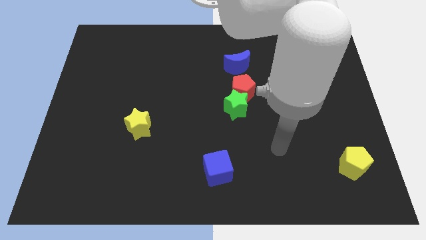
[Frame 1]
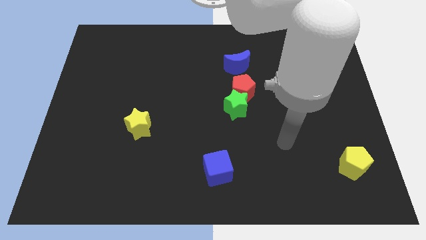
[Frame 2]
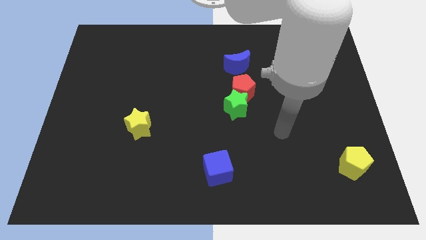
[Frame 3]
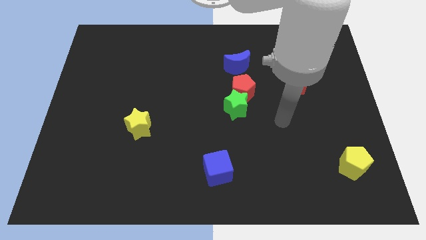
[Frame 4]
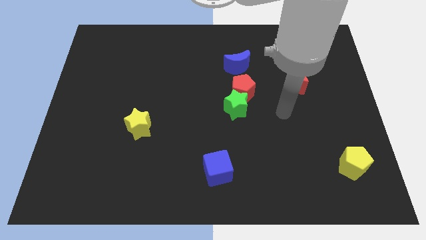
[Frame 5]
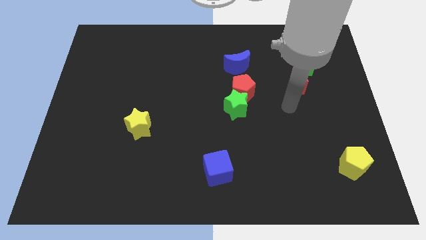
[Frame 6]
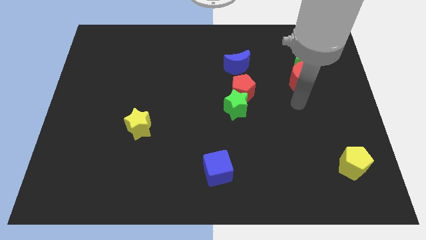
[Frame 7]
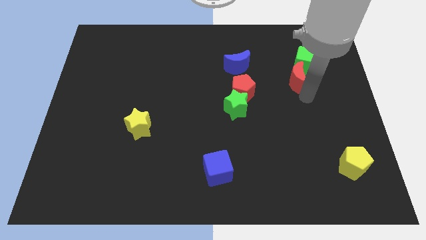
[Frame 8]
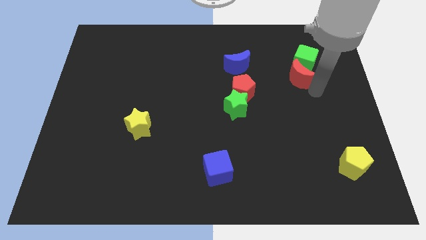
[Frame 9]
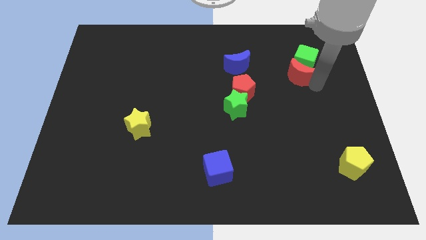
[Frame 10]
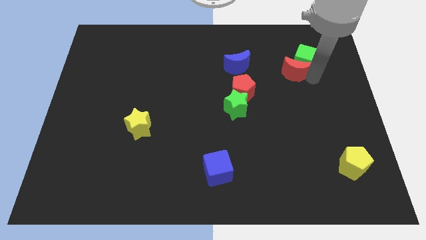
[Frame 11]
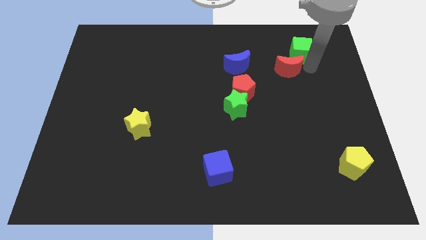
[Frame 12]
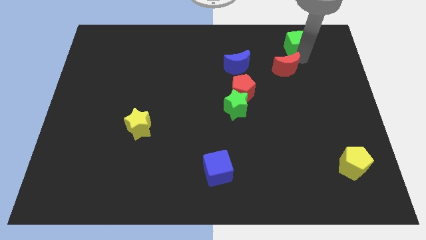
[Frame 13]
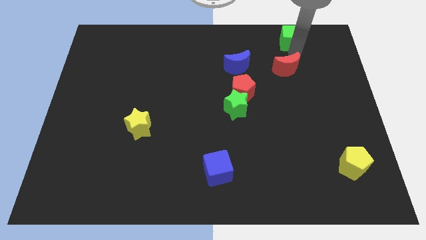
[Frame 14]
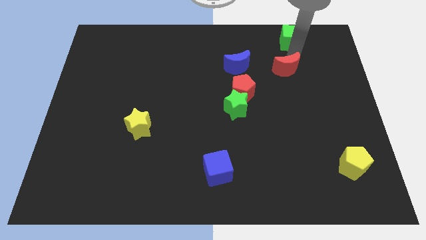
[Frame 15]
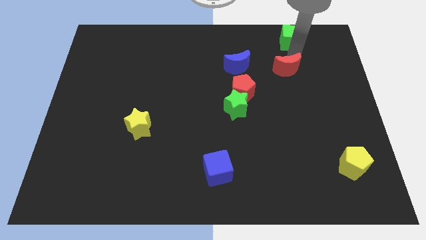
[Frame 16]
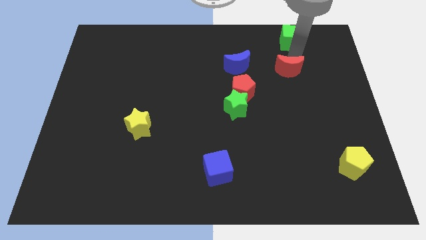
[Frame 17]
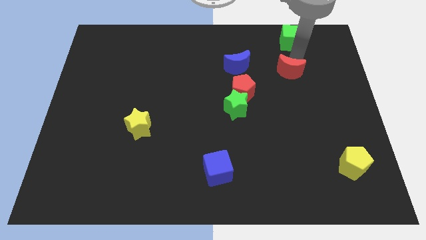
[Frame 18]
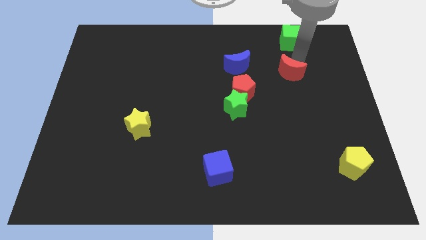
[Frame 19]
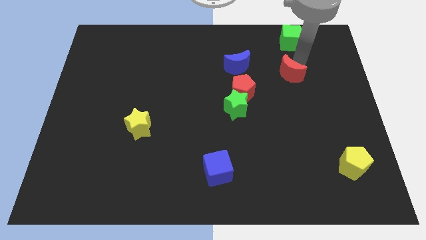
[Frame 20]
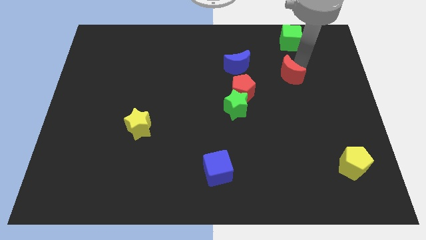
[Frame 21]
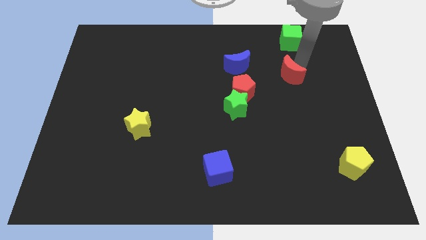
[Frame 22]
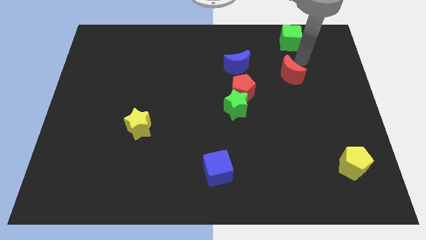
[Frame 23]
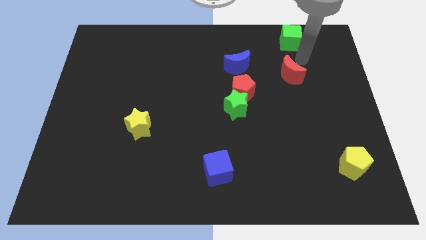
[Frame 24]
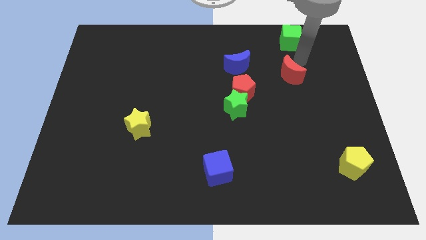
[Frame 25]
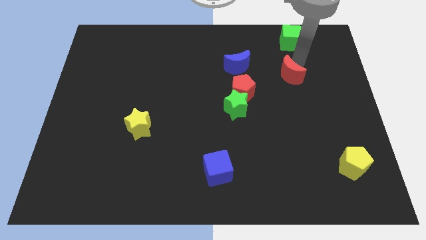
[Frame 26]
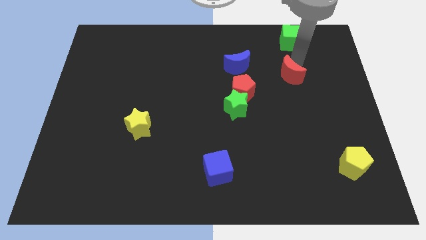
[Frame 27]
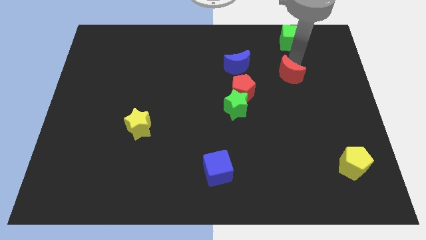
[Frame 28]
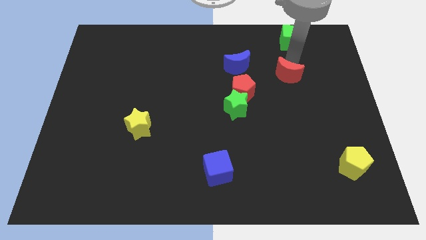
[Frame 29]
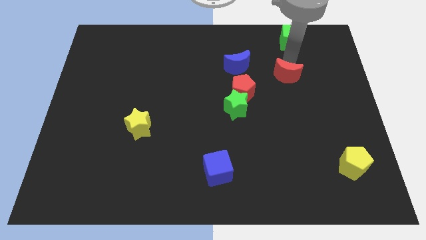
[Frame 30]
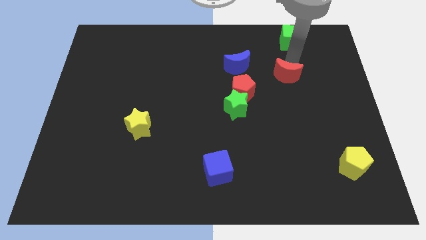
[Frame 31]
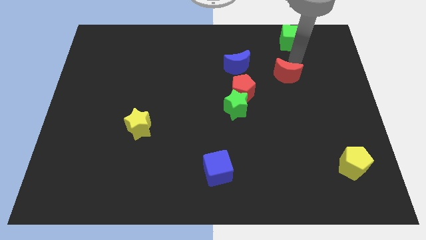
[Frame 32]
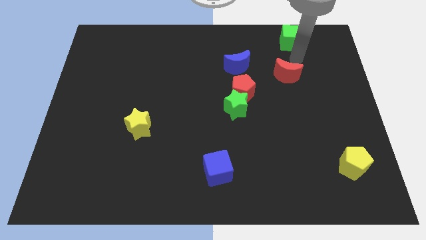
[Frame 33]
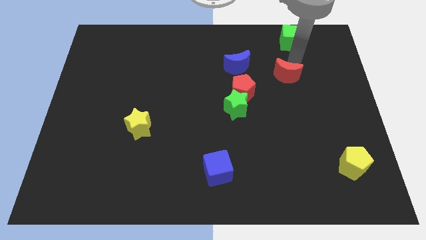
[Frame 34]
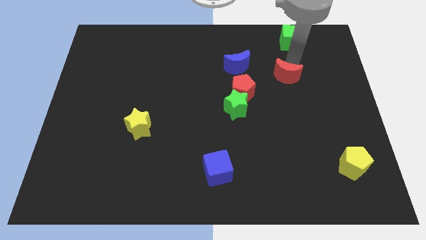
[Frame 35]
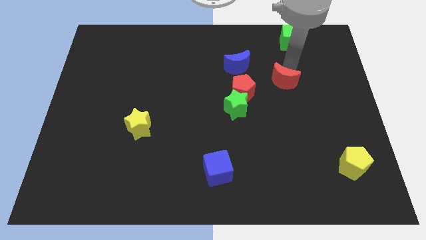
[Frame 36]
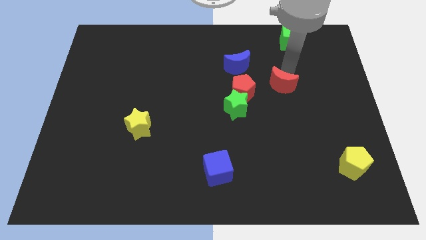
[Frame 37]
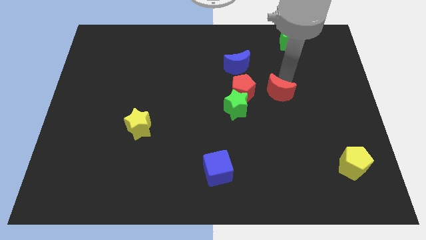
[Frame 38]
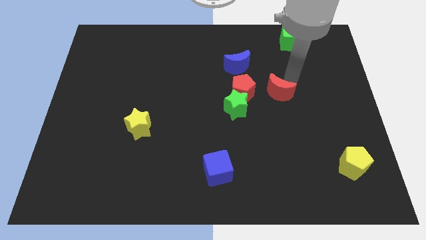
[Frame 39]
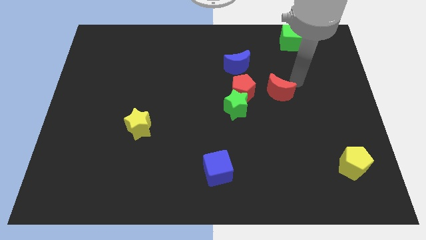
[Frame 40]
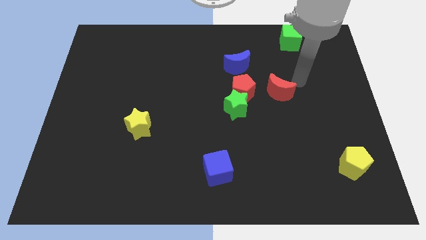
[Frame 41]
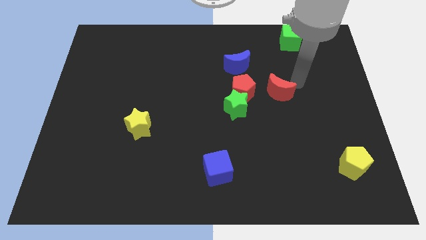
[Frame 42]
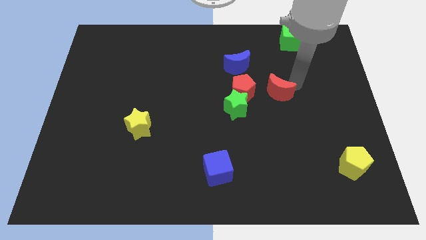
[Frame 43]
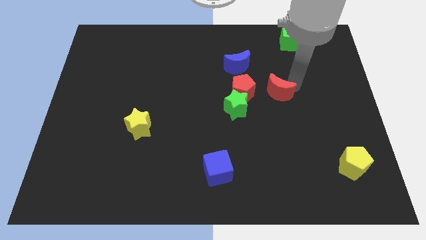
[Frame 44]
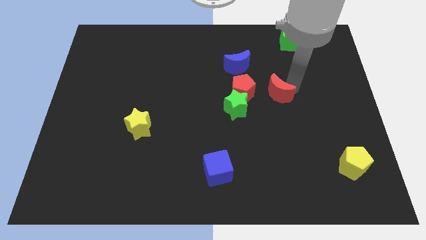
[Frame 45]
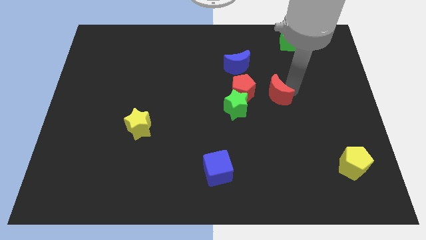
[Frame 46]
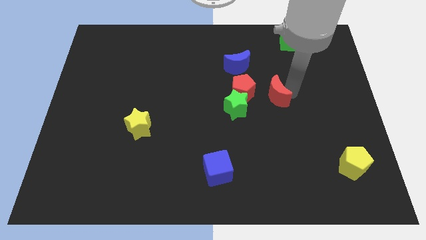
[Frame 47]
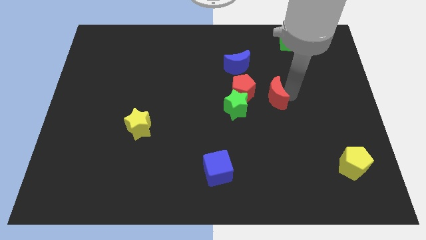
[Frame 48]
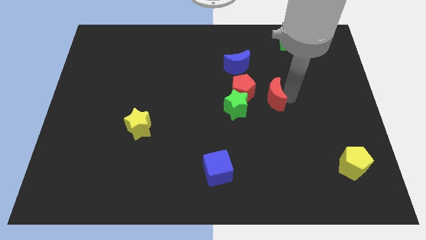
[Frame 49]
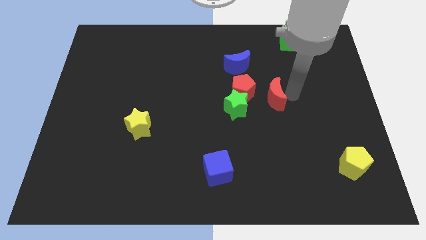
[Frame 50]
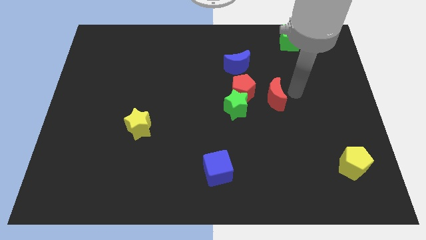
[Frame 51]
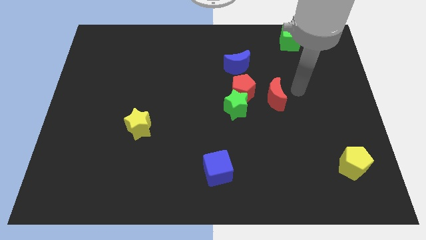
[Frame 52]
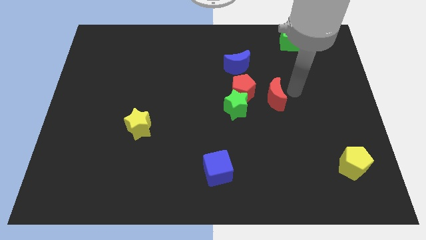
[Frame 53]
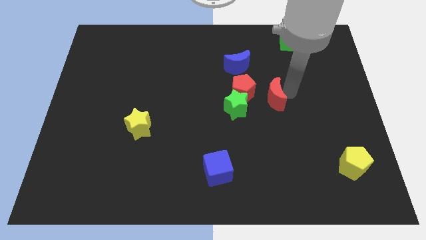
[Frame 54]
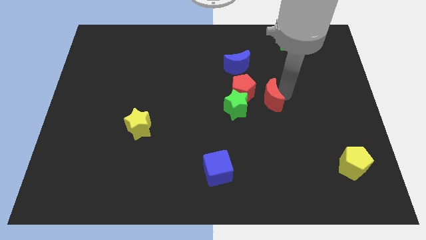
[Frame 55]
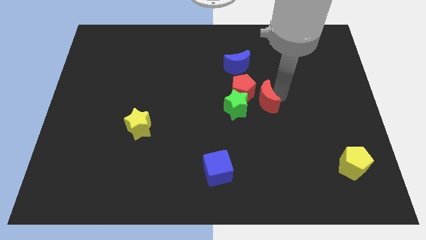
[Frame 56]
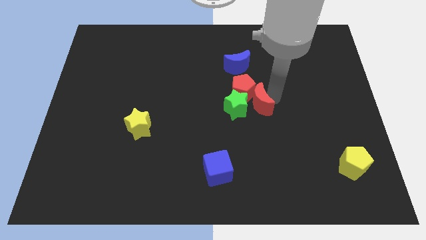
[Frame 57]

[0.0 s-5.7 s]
push the red moon next to the green star

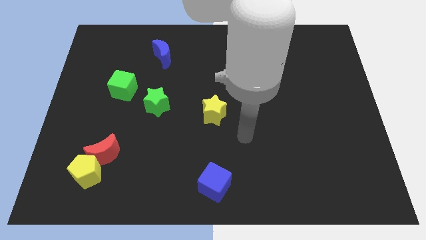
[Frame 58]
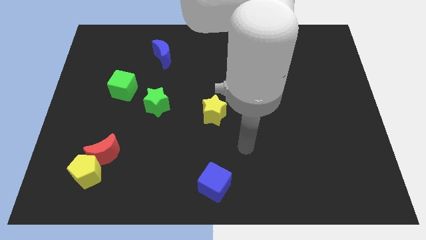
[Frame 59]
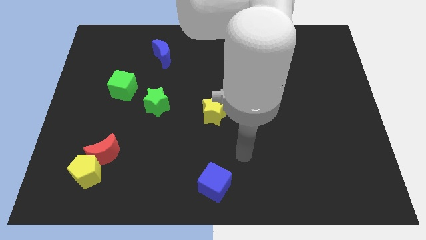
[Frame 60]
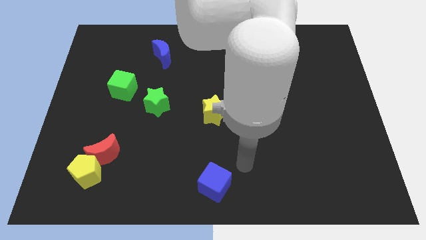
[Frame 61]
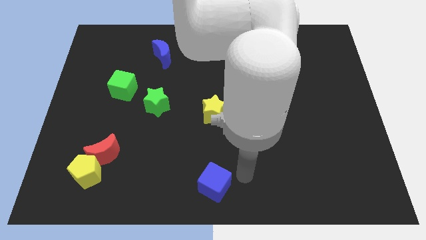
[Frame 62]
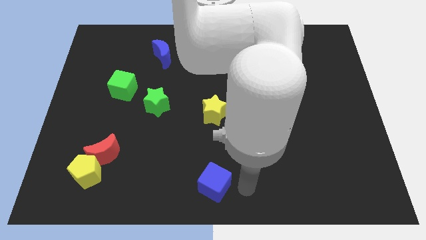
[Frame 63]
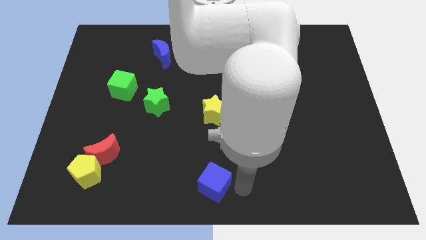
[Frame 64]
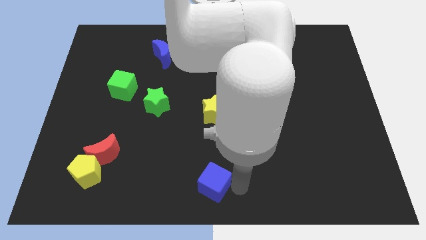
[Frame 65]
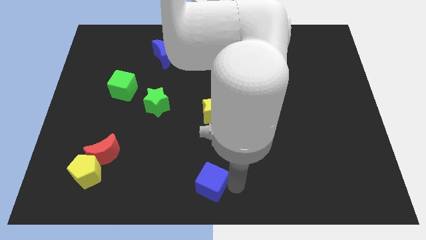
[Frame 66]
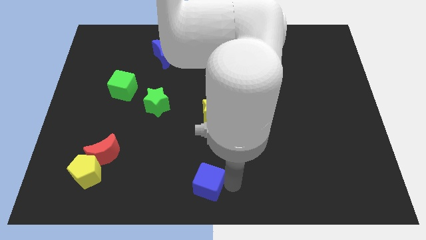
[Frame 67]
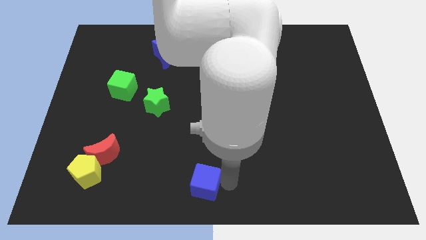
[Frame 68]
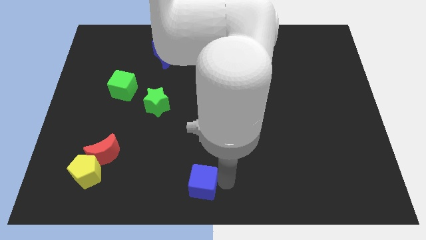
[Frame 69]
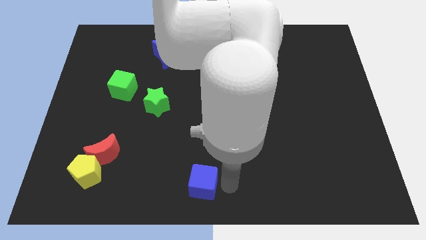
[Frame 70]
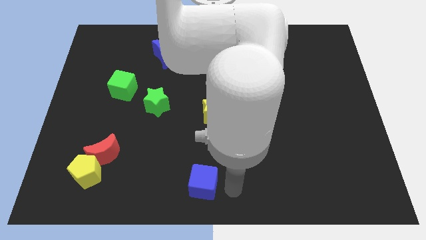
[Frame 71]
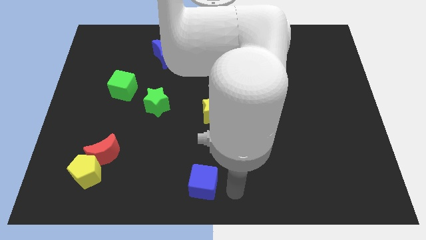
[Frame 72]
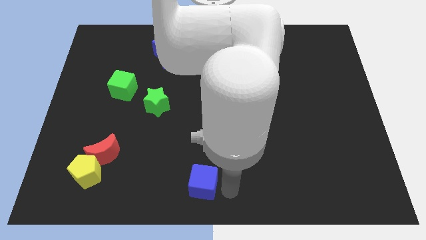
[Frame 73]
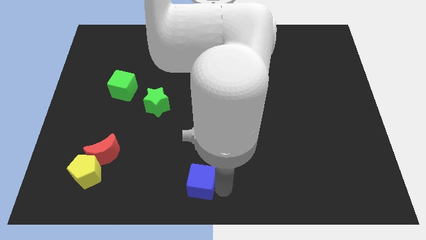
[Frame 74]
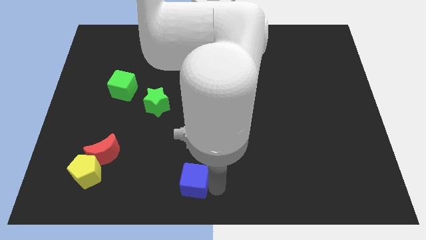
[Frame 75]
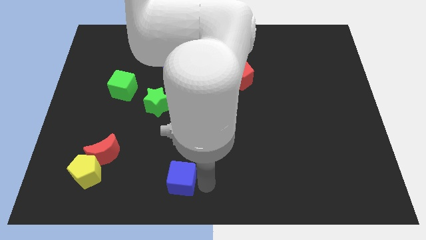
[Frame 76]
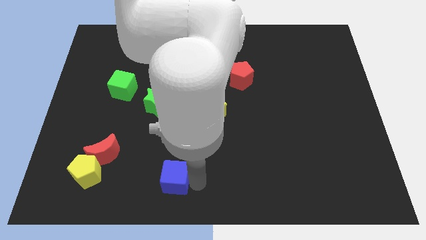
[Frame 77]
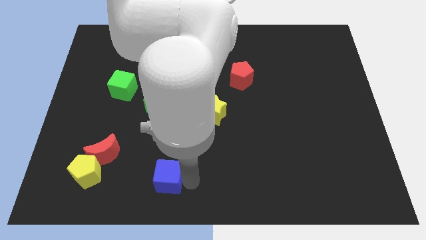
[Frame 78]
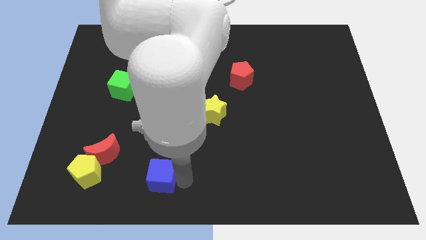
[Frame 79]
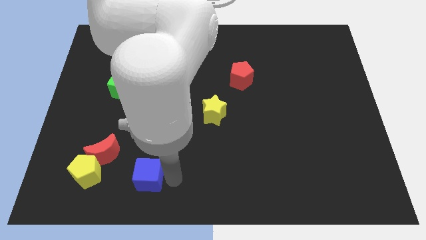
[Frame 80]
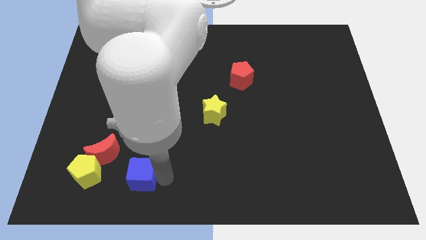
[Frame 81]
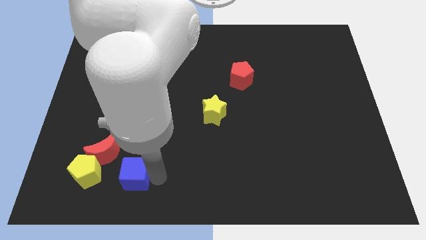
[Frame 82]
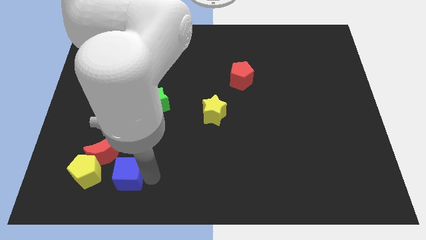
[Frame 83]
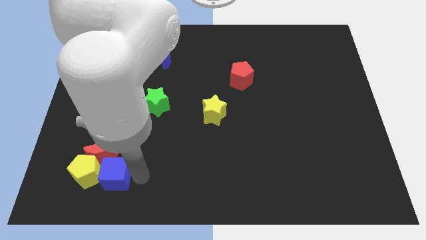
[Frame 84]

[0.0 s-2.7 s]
move the blue cube towards the yellow pentagon

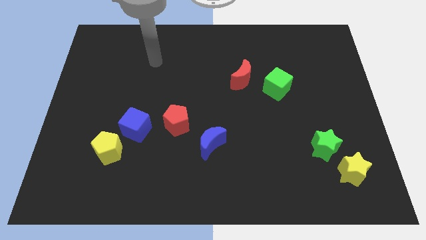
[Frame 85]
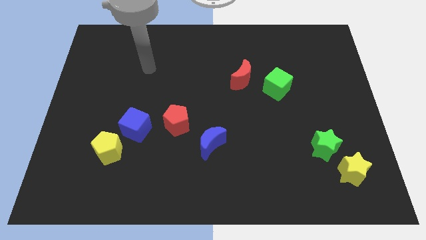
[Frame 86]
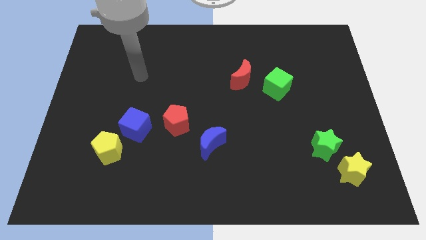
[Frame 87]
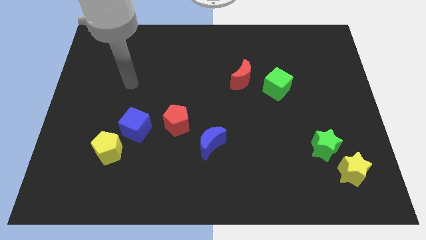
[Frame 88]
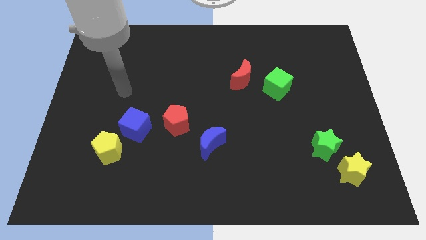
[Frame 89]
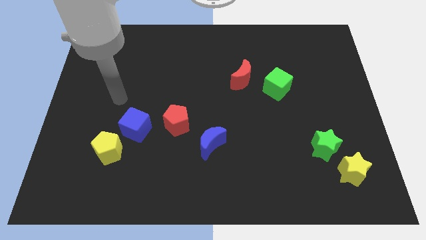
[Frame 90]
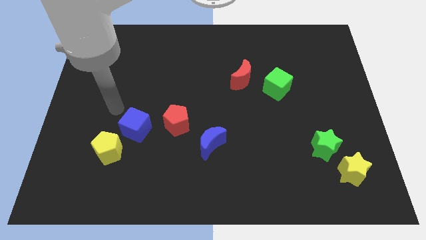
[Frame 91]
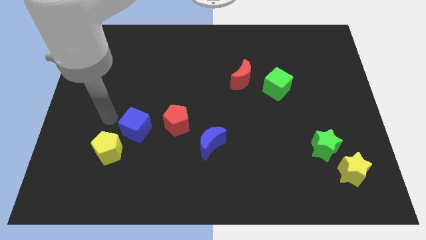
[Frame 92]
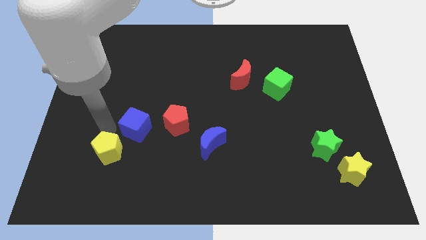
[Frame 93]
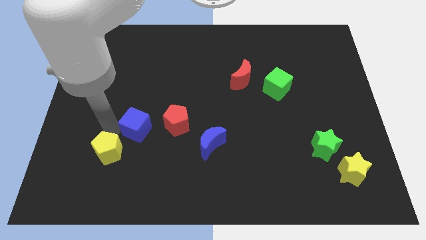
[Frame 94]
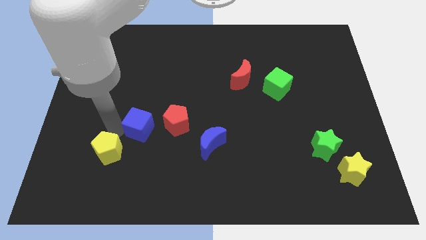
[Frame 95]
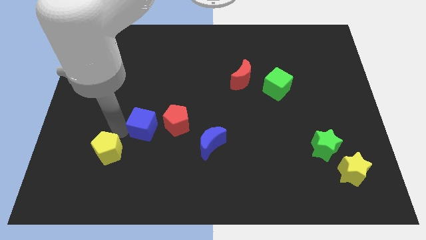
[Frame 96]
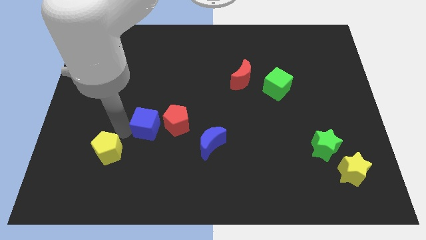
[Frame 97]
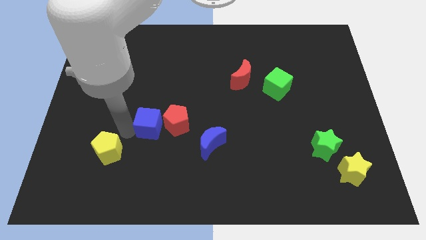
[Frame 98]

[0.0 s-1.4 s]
push the blue cube towards the red pentagon
